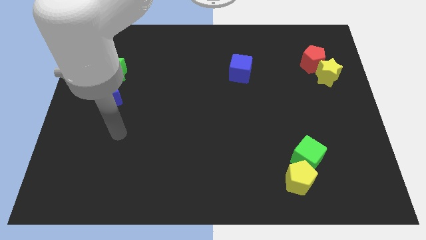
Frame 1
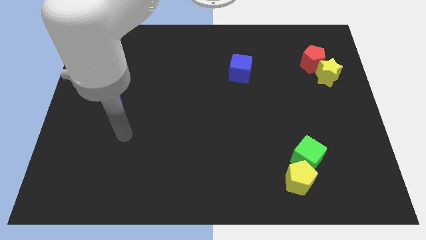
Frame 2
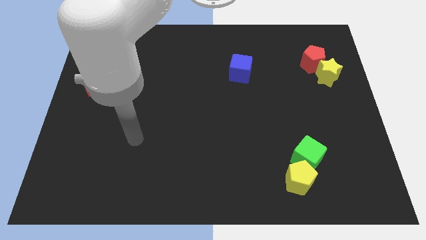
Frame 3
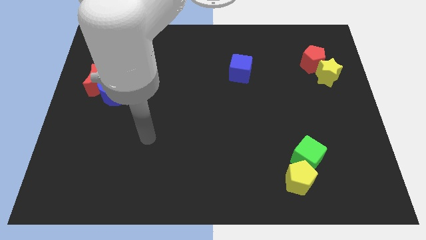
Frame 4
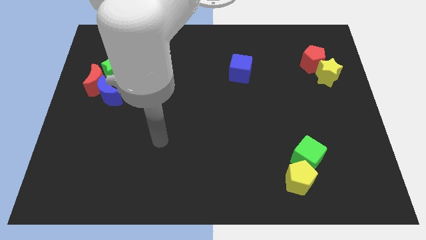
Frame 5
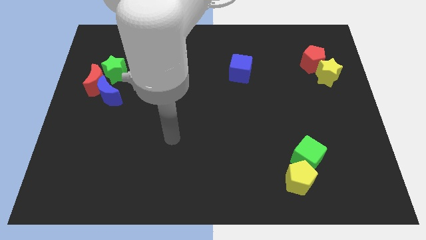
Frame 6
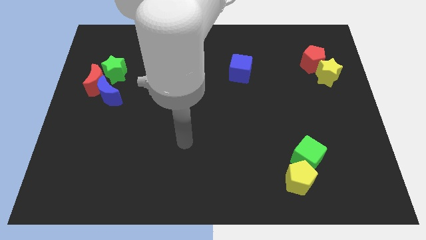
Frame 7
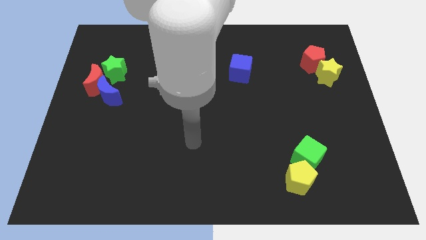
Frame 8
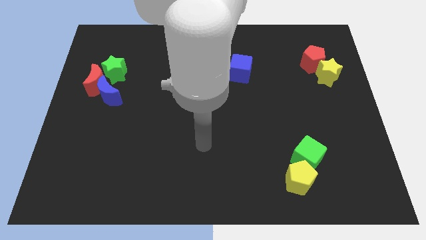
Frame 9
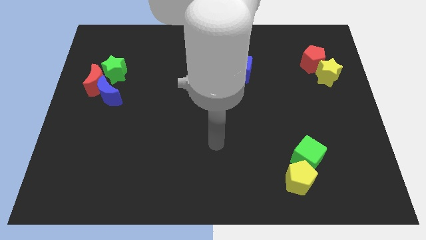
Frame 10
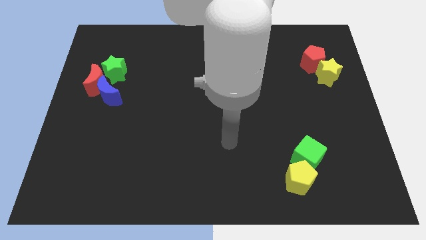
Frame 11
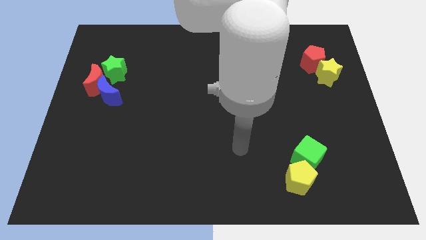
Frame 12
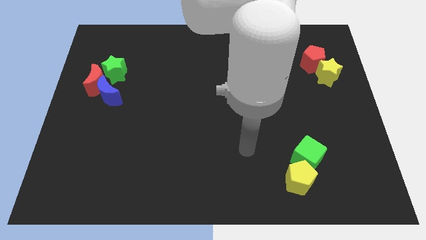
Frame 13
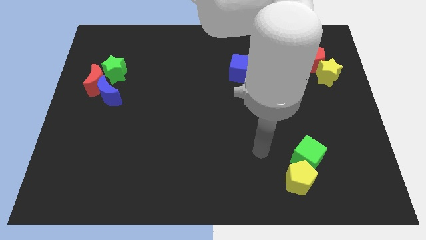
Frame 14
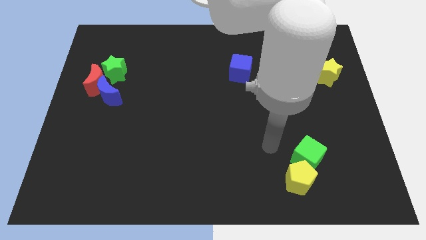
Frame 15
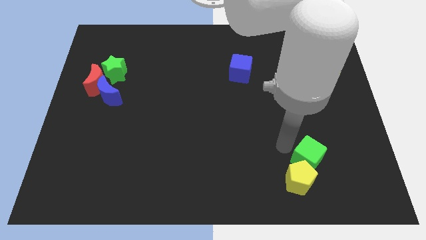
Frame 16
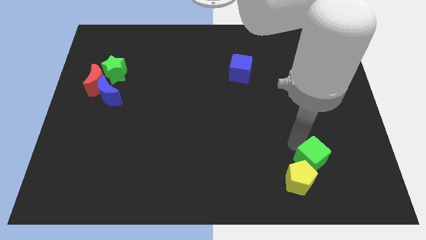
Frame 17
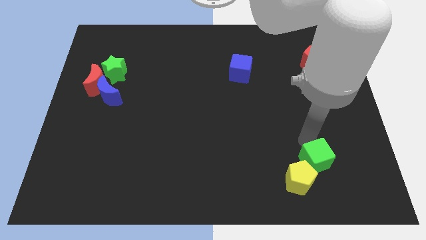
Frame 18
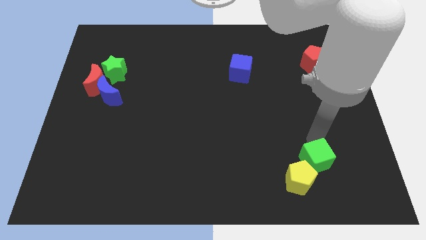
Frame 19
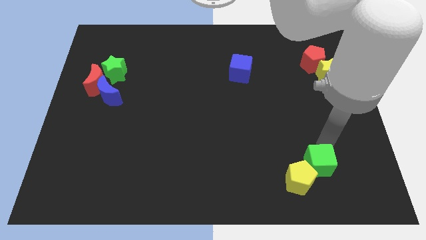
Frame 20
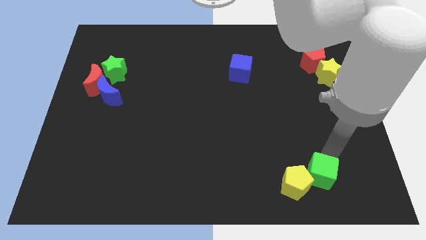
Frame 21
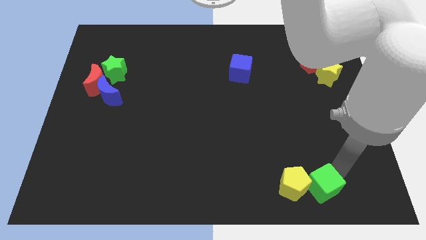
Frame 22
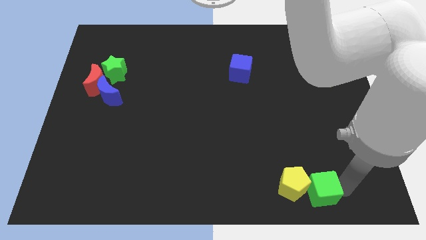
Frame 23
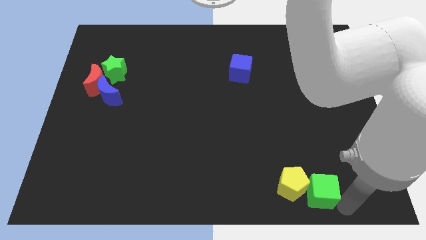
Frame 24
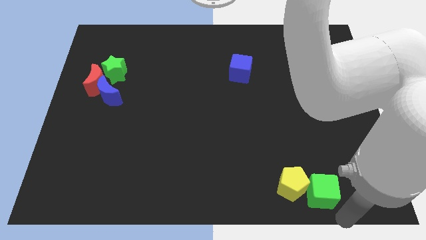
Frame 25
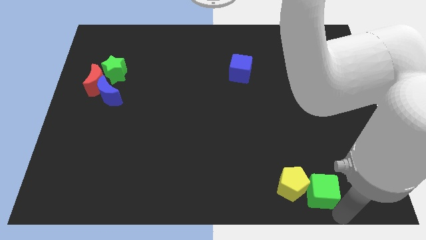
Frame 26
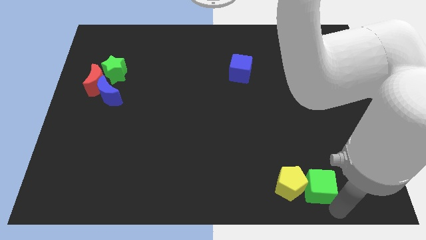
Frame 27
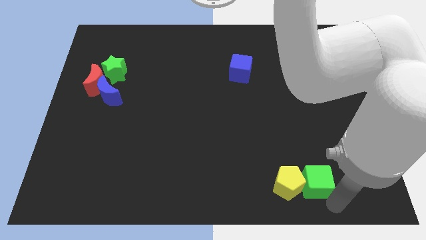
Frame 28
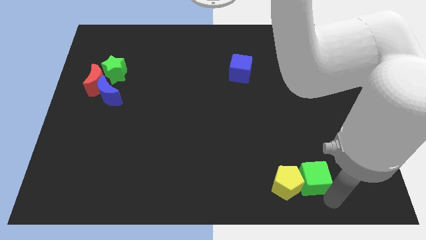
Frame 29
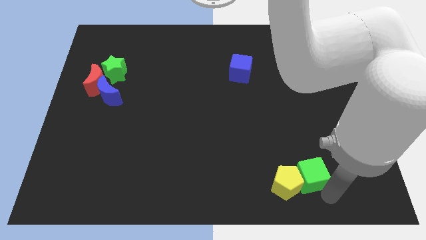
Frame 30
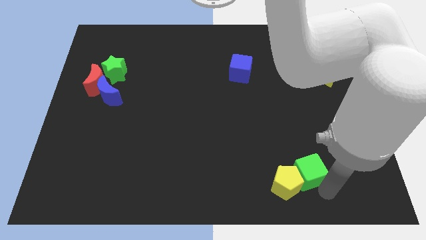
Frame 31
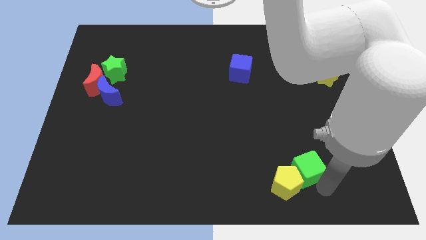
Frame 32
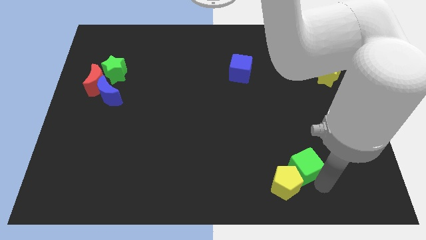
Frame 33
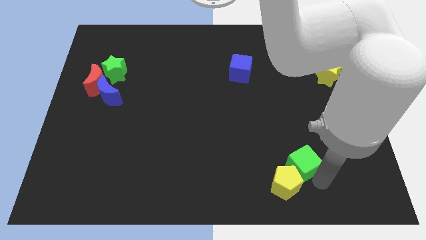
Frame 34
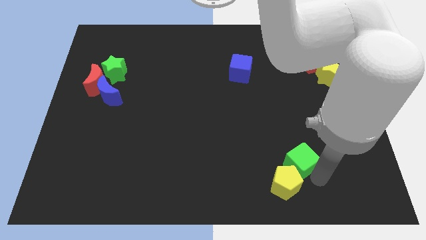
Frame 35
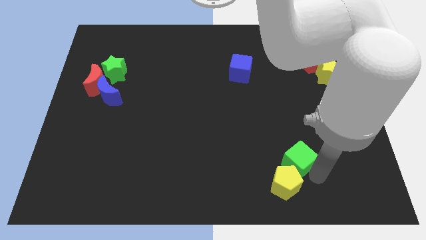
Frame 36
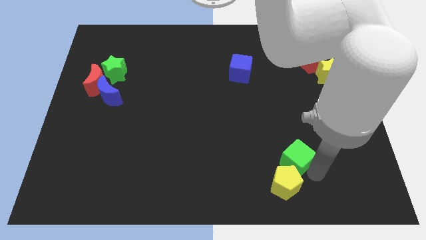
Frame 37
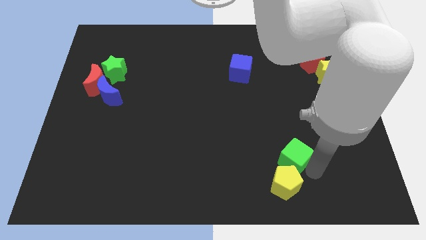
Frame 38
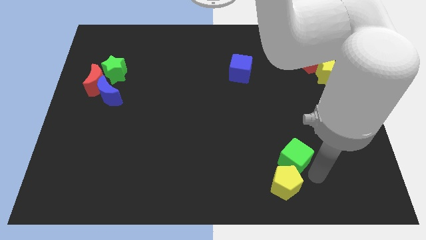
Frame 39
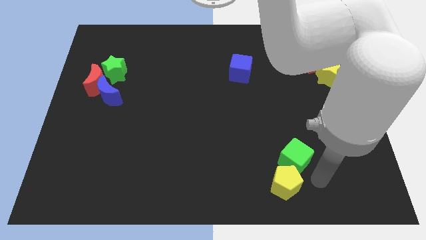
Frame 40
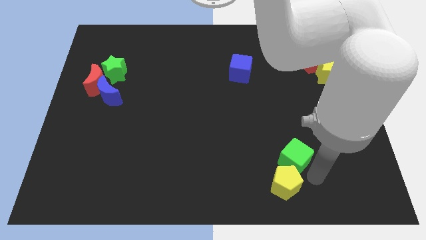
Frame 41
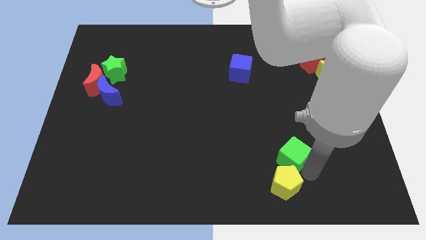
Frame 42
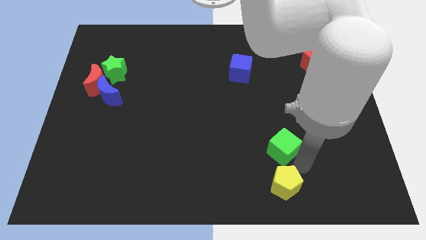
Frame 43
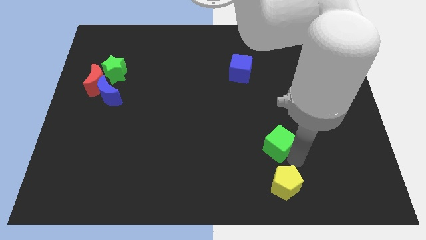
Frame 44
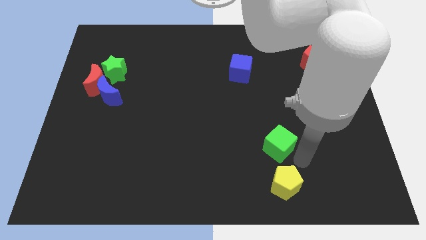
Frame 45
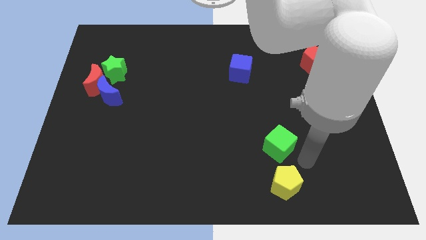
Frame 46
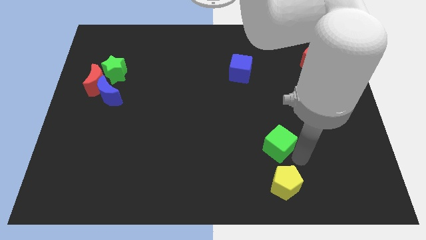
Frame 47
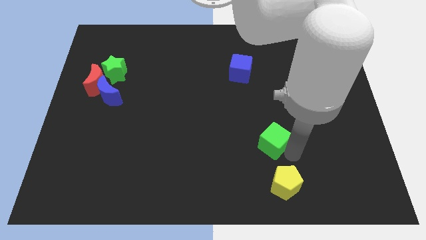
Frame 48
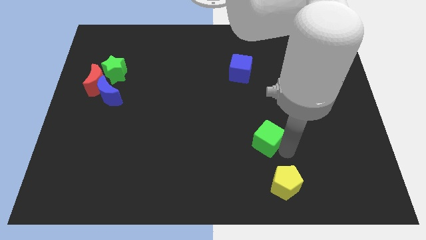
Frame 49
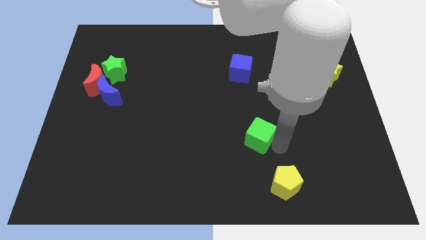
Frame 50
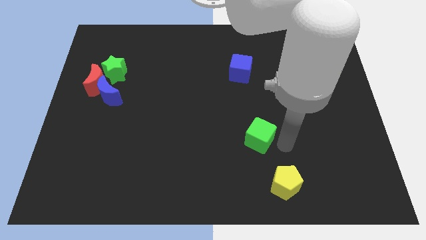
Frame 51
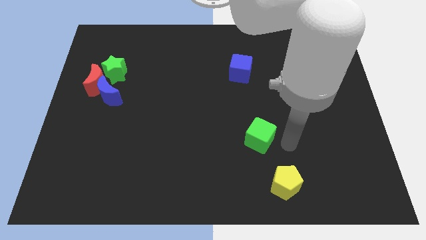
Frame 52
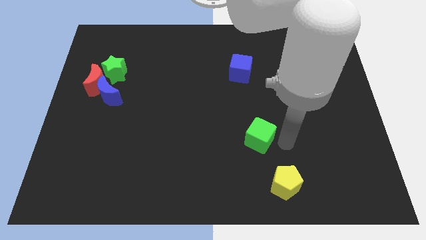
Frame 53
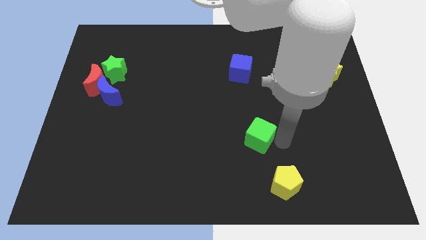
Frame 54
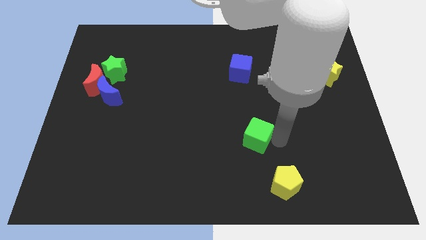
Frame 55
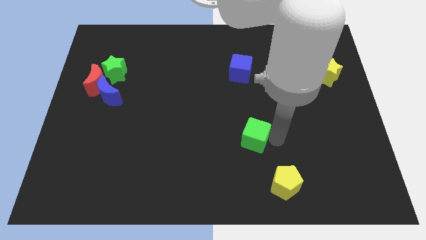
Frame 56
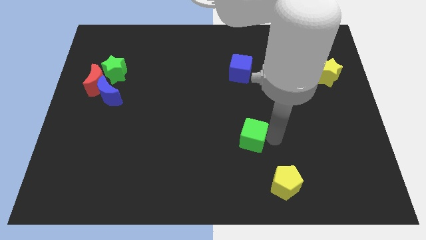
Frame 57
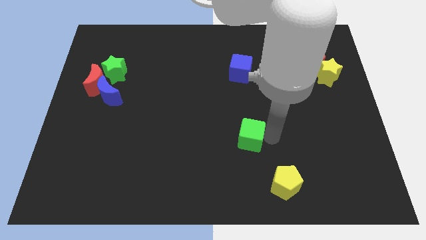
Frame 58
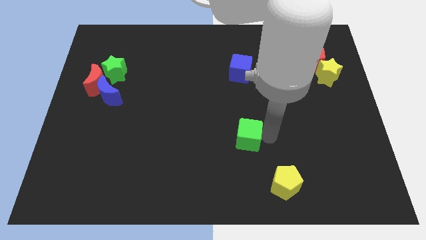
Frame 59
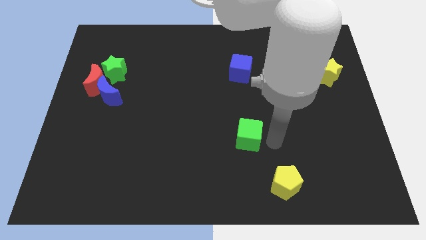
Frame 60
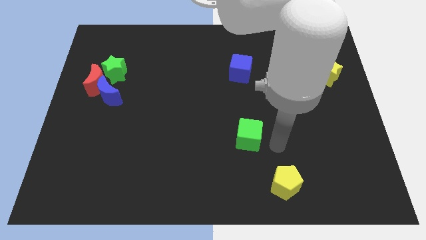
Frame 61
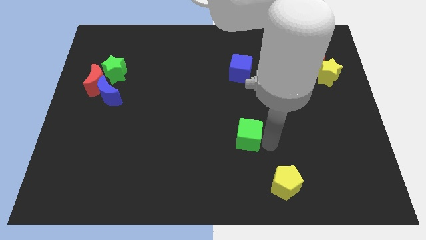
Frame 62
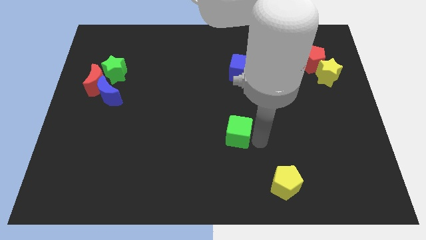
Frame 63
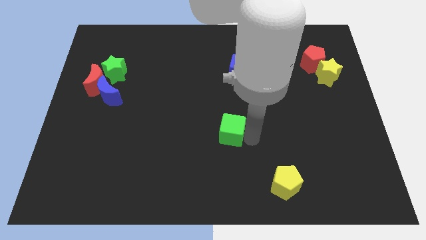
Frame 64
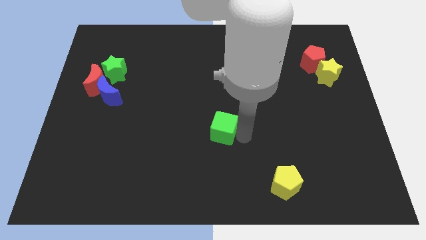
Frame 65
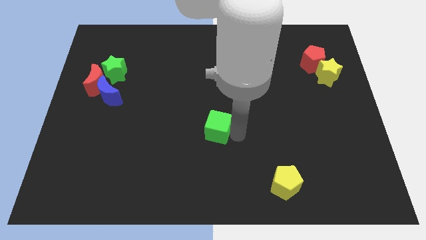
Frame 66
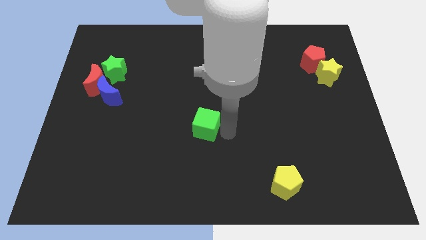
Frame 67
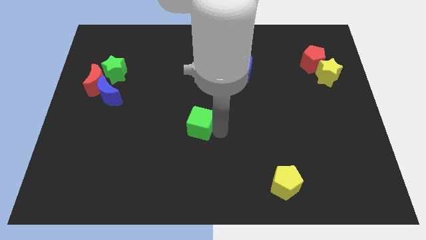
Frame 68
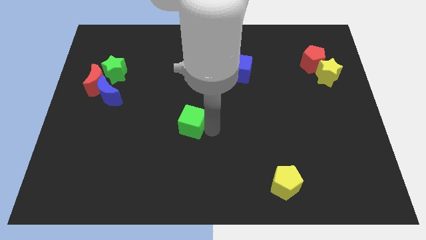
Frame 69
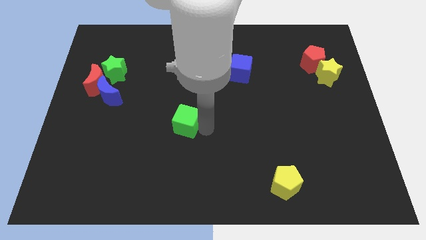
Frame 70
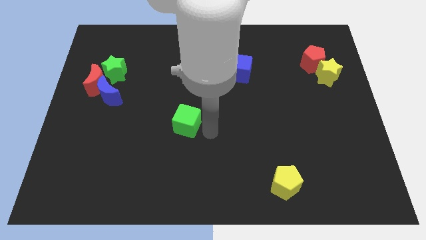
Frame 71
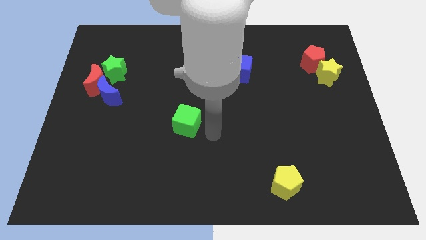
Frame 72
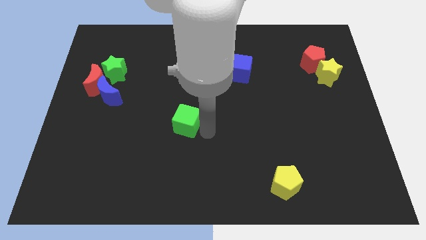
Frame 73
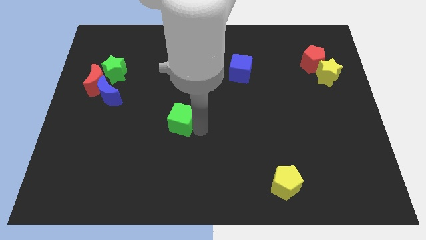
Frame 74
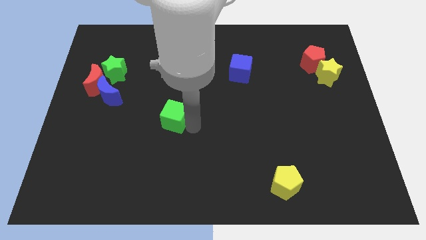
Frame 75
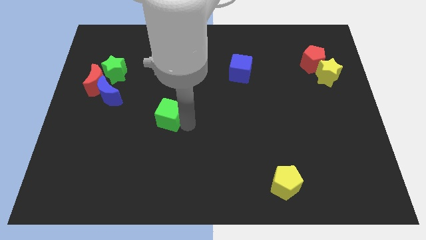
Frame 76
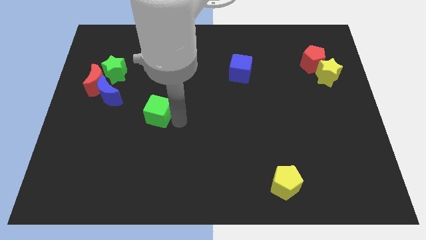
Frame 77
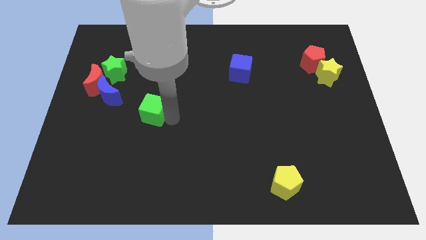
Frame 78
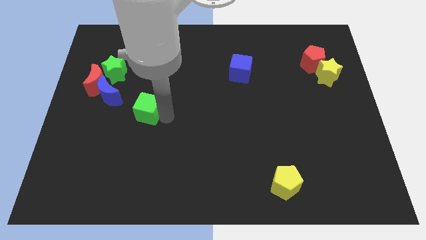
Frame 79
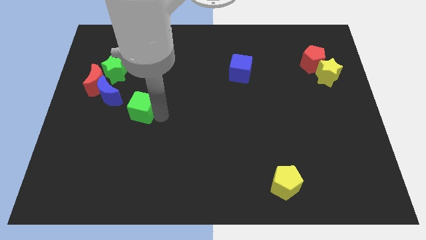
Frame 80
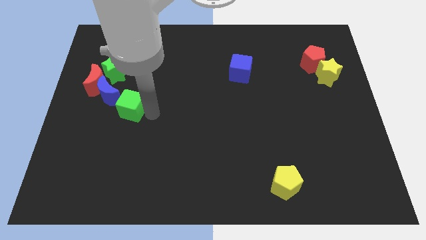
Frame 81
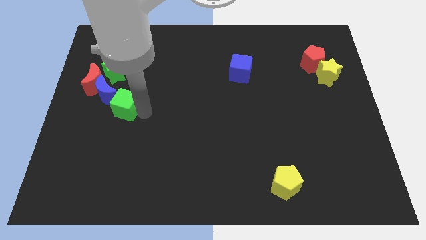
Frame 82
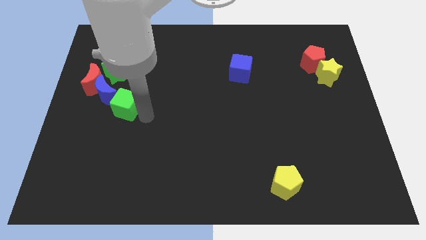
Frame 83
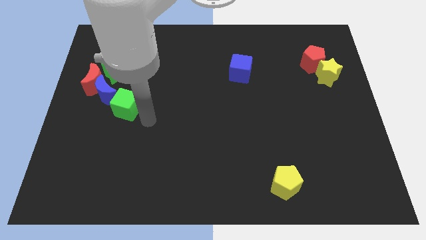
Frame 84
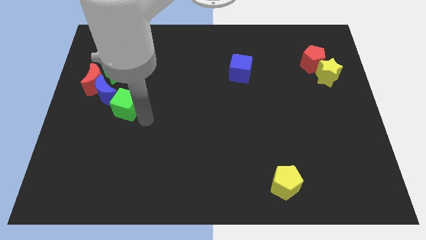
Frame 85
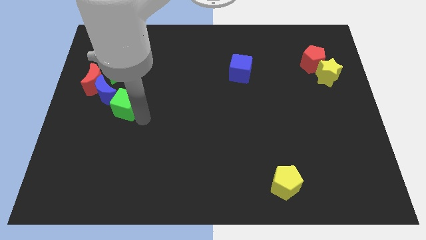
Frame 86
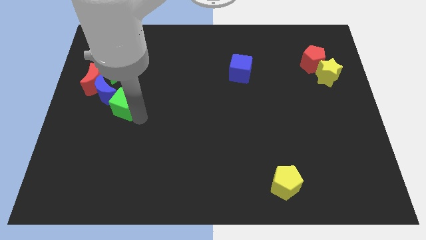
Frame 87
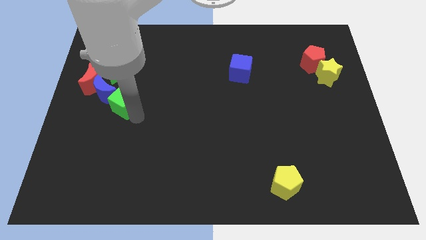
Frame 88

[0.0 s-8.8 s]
slide the green cube close to the blue moon
